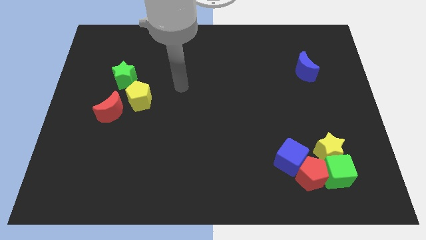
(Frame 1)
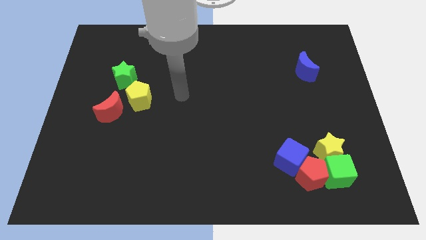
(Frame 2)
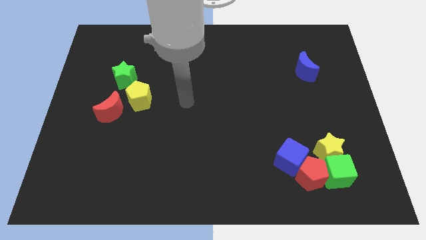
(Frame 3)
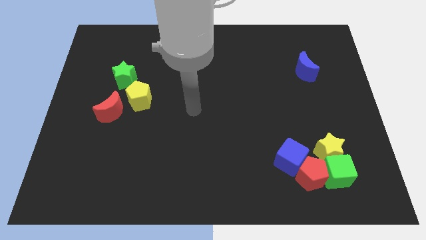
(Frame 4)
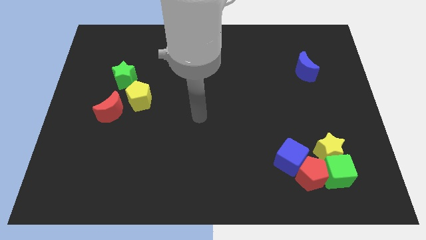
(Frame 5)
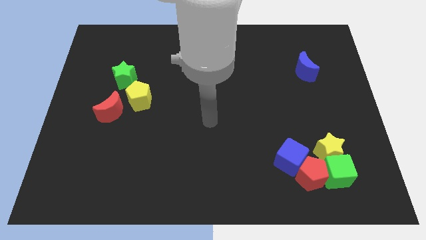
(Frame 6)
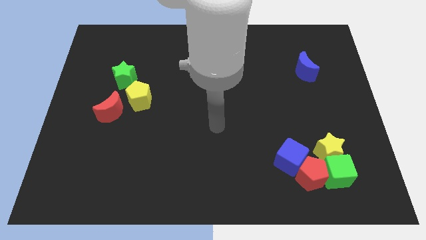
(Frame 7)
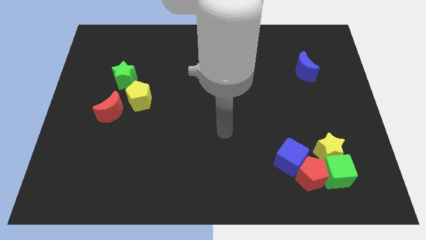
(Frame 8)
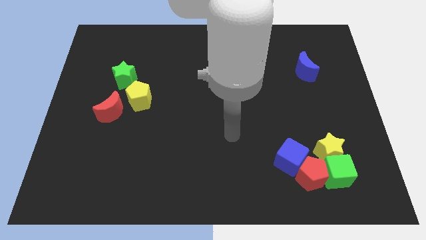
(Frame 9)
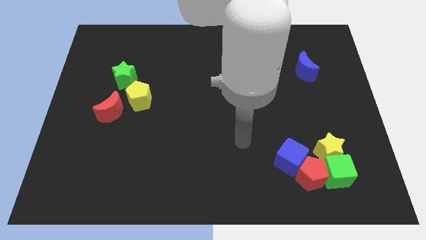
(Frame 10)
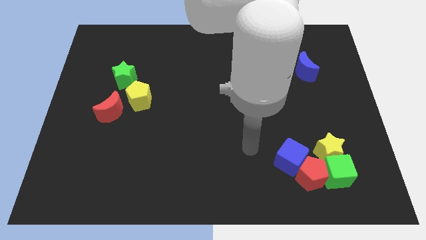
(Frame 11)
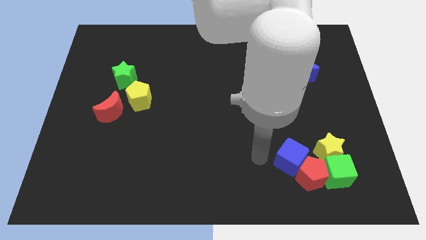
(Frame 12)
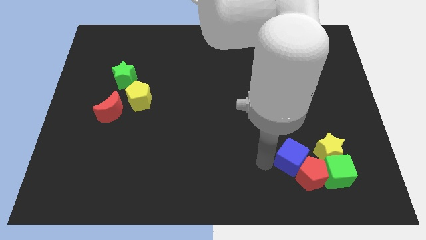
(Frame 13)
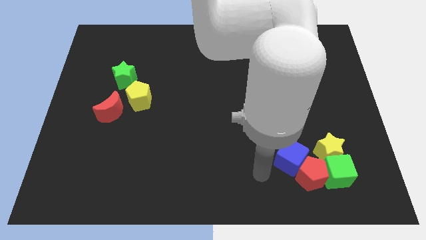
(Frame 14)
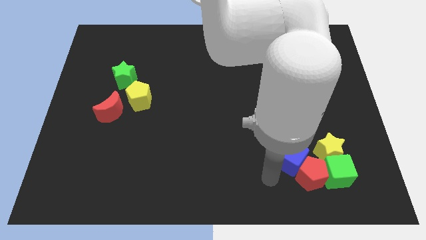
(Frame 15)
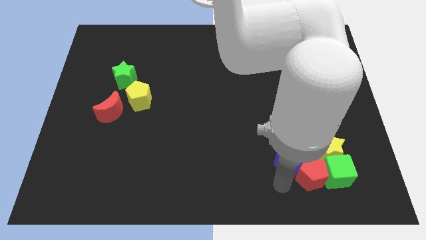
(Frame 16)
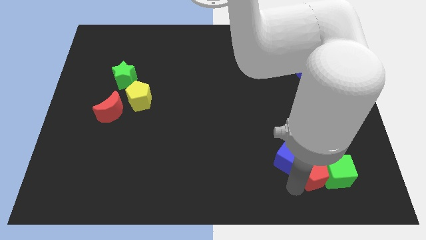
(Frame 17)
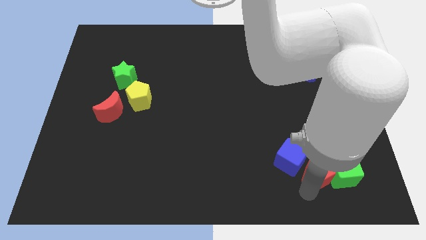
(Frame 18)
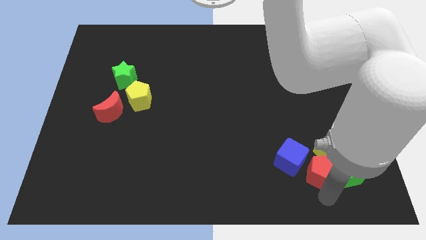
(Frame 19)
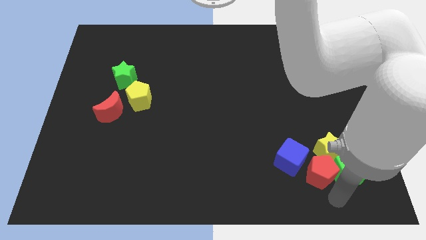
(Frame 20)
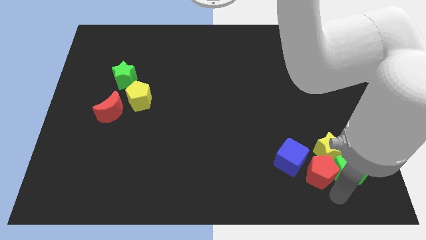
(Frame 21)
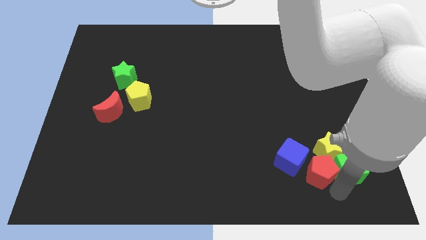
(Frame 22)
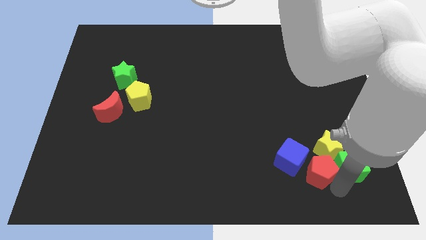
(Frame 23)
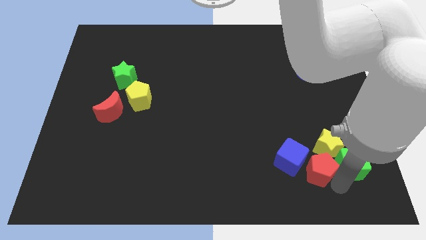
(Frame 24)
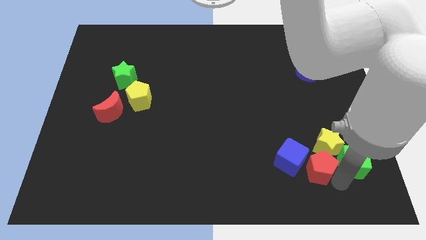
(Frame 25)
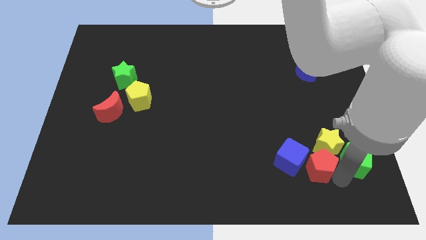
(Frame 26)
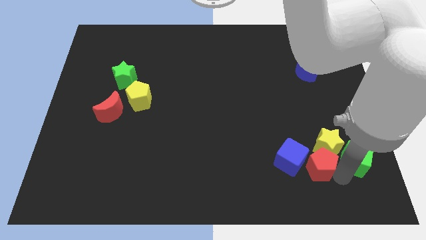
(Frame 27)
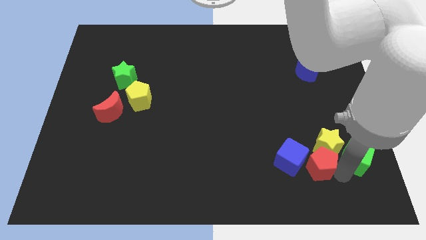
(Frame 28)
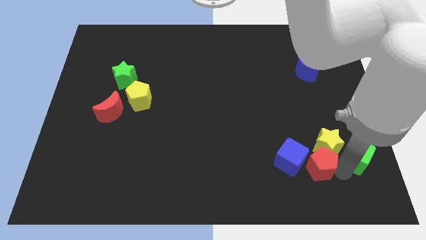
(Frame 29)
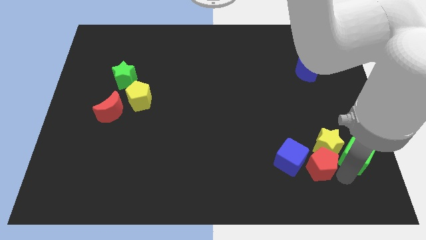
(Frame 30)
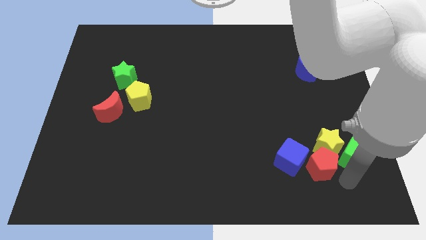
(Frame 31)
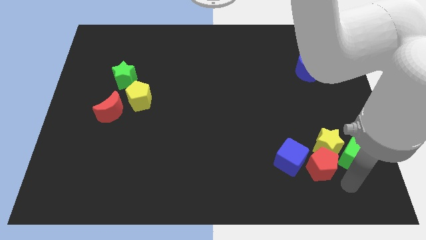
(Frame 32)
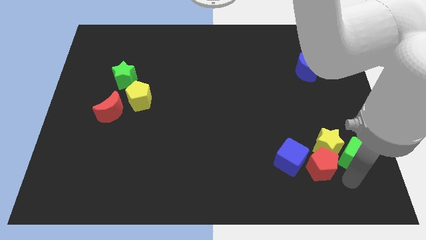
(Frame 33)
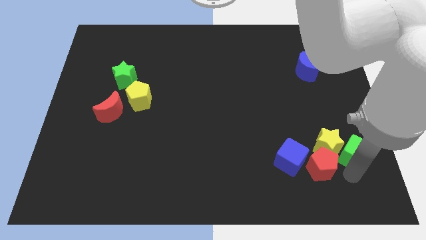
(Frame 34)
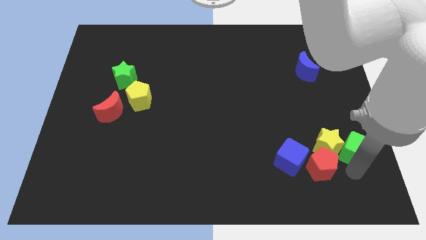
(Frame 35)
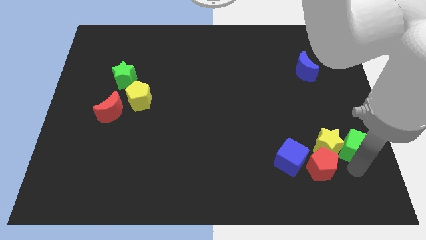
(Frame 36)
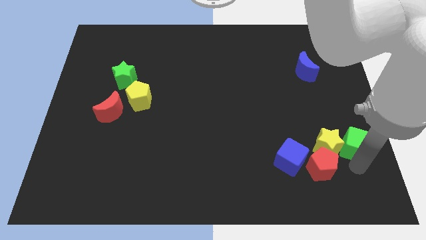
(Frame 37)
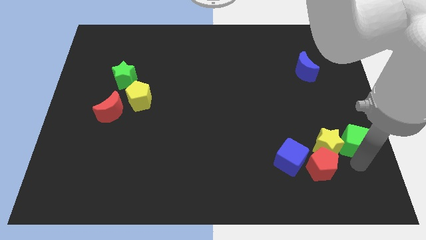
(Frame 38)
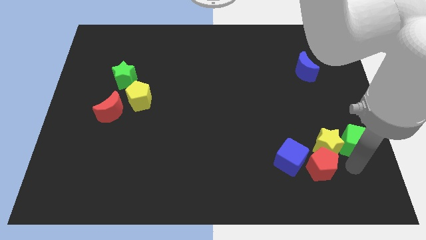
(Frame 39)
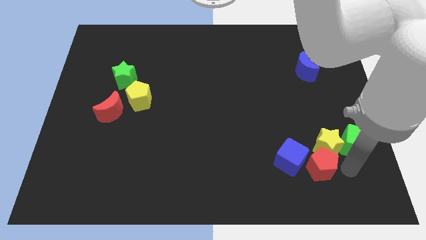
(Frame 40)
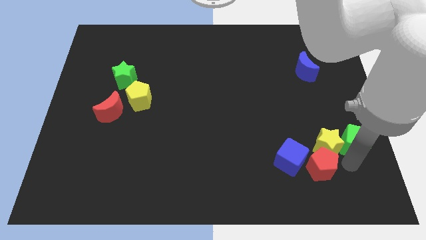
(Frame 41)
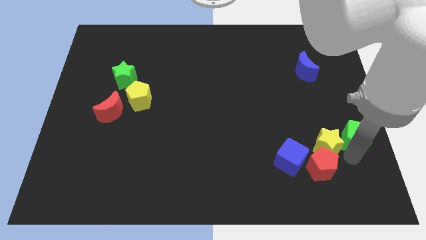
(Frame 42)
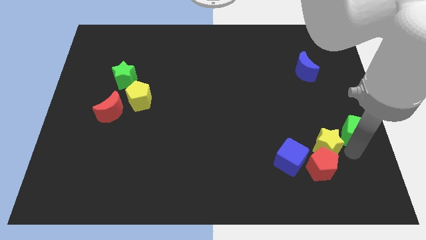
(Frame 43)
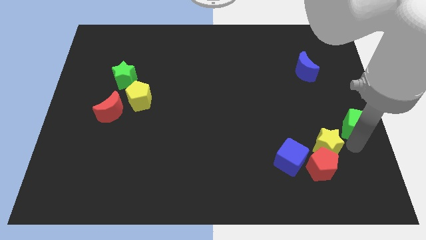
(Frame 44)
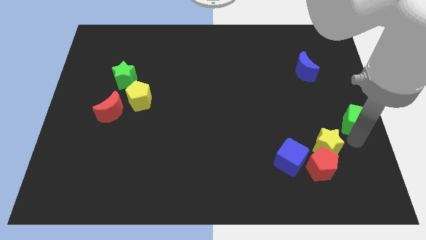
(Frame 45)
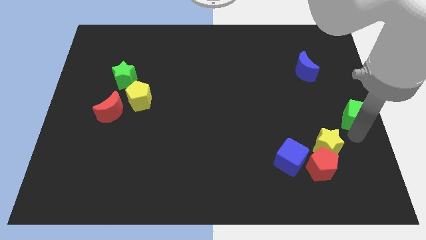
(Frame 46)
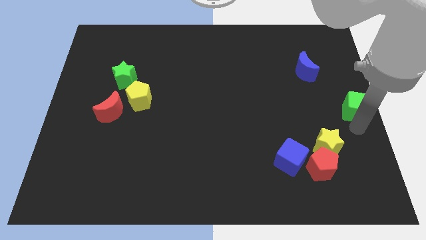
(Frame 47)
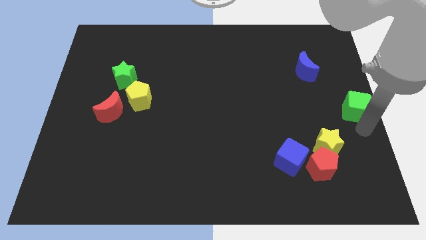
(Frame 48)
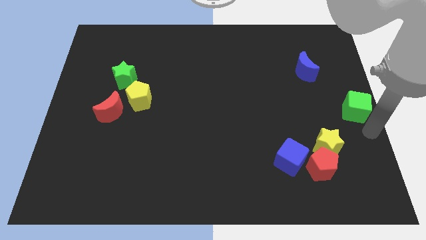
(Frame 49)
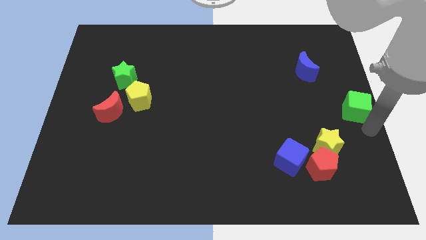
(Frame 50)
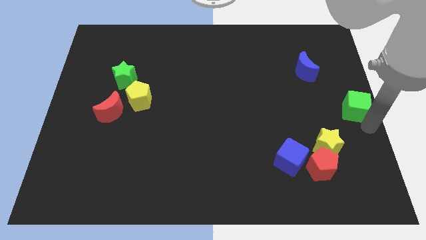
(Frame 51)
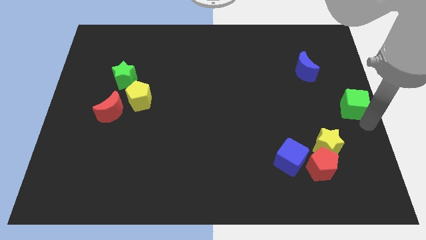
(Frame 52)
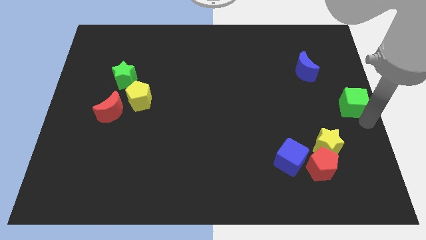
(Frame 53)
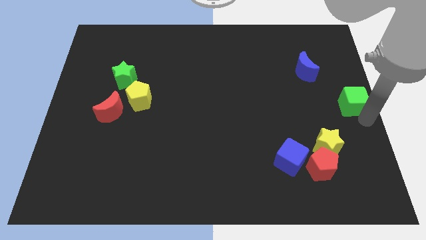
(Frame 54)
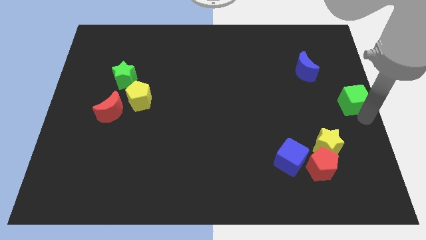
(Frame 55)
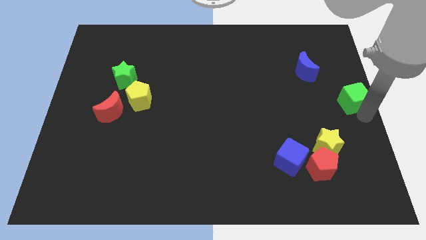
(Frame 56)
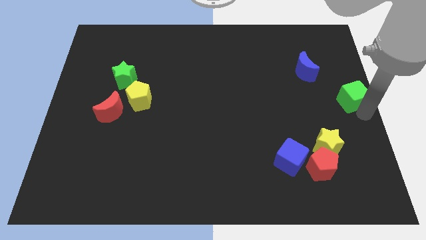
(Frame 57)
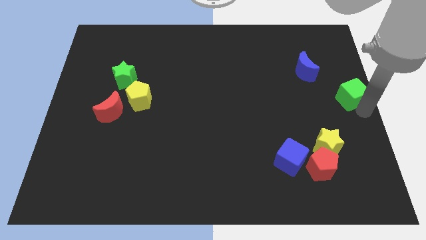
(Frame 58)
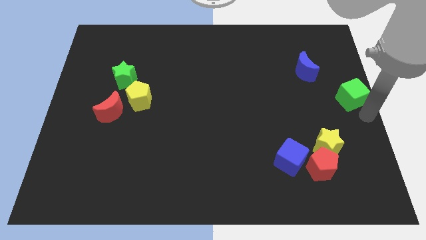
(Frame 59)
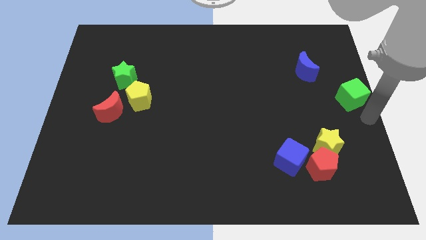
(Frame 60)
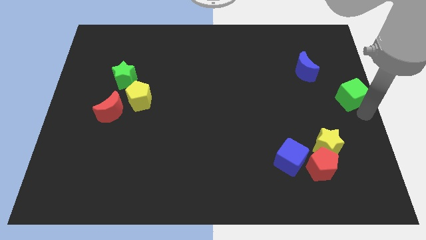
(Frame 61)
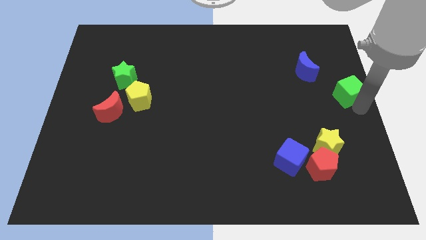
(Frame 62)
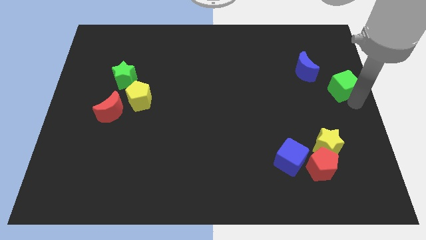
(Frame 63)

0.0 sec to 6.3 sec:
push the green cube upwards

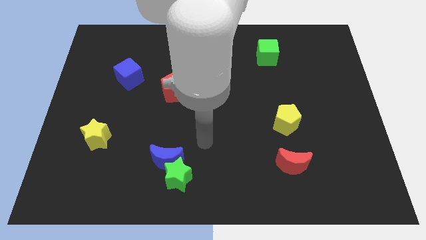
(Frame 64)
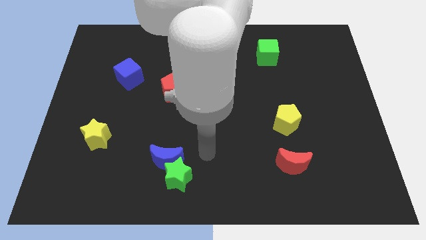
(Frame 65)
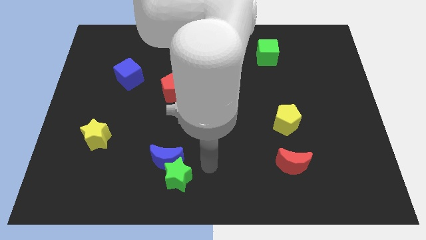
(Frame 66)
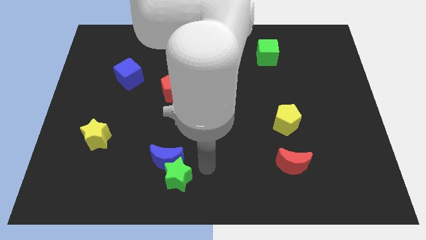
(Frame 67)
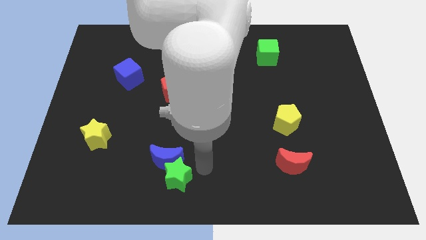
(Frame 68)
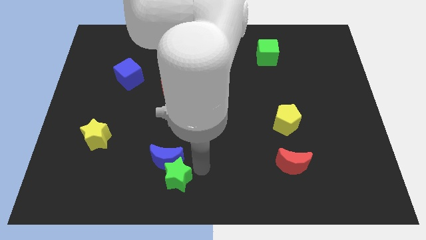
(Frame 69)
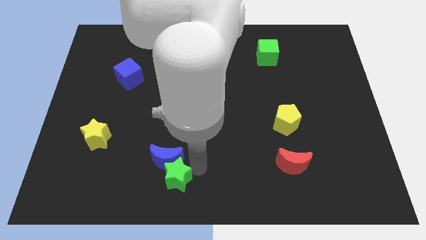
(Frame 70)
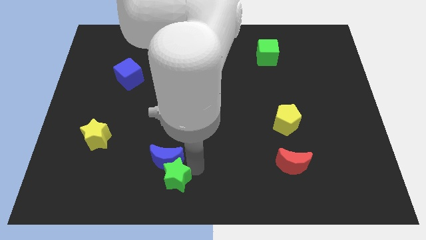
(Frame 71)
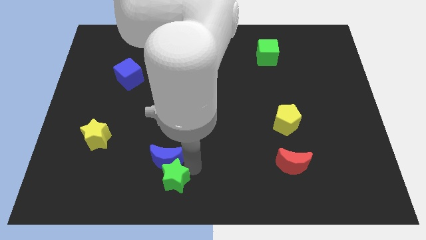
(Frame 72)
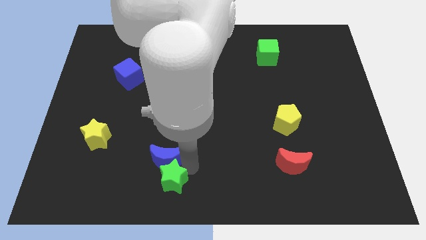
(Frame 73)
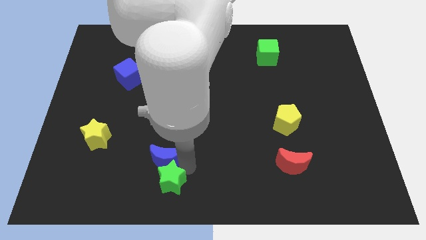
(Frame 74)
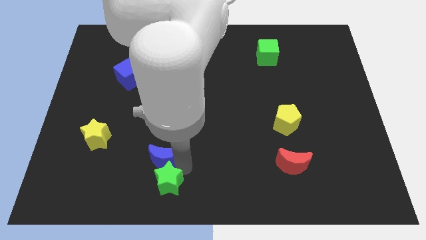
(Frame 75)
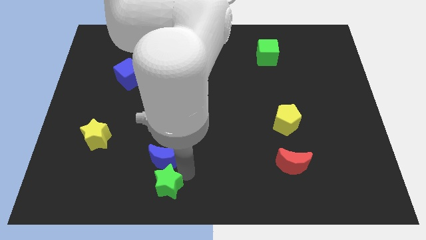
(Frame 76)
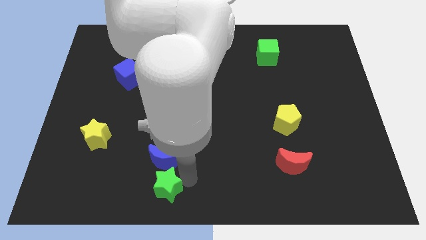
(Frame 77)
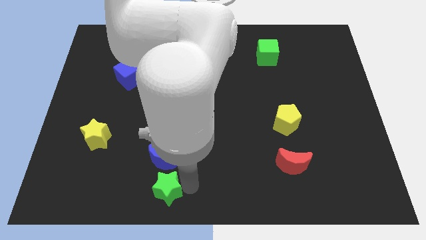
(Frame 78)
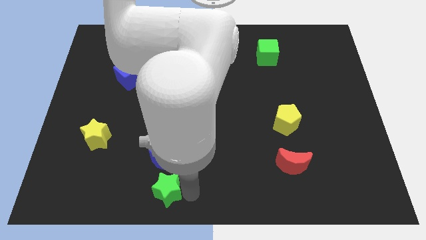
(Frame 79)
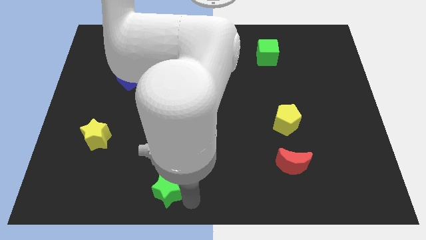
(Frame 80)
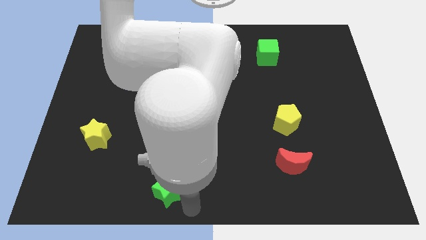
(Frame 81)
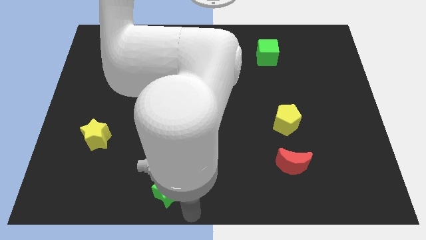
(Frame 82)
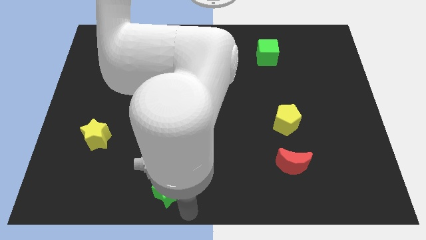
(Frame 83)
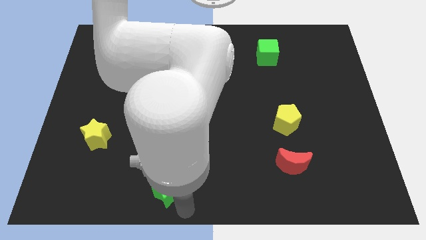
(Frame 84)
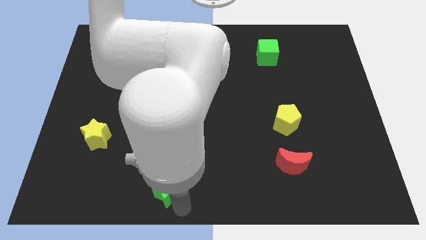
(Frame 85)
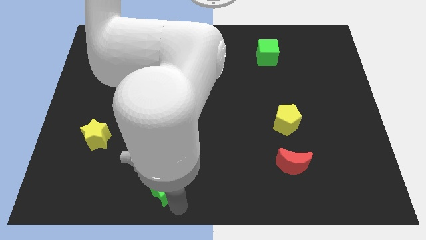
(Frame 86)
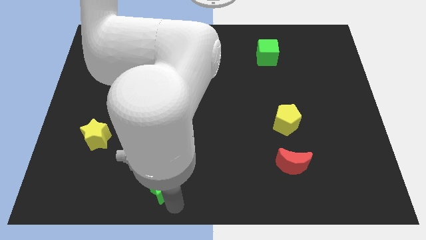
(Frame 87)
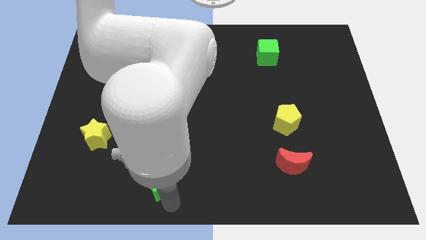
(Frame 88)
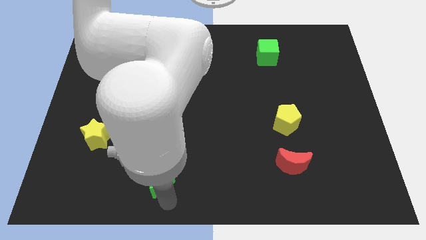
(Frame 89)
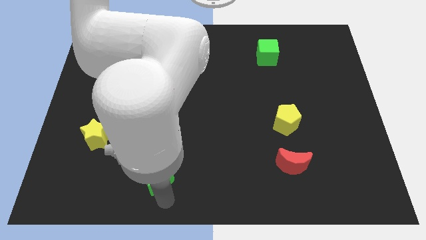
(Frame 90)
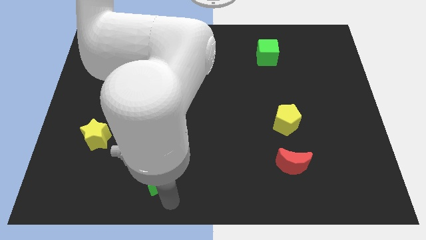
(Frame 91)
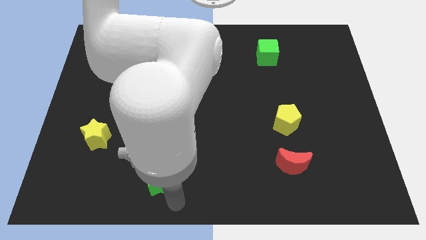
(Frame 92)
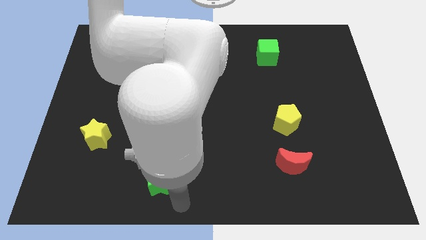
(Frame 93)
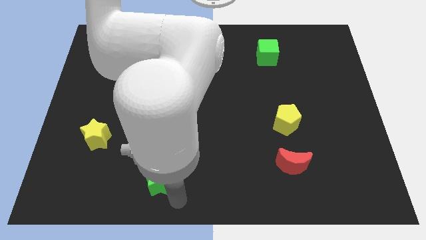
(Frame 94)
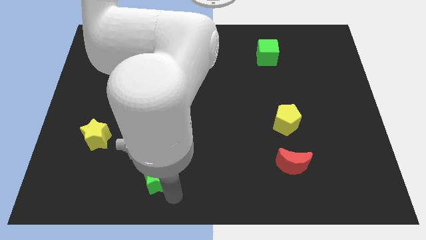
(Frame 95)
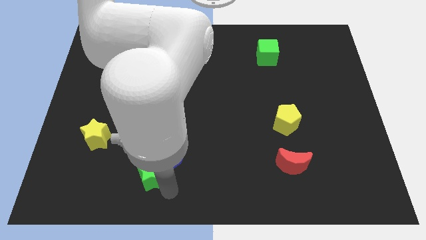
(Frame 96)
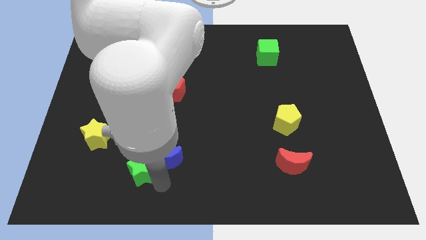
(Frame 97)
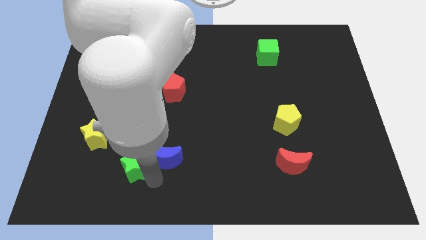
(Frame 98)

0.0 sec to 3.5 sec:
move the green star upwards and then left a bit
